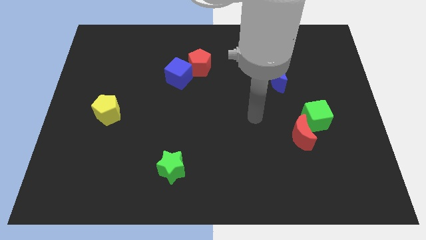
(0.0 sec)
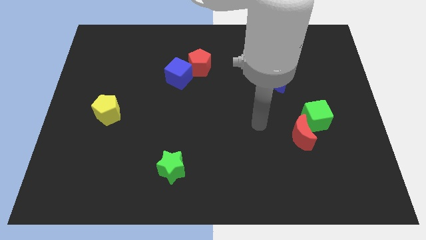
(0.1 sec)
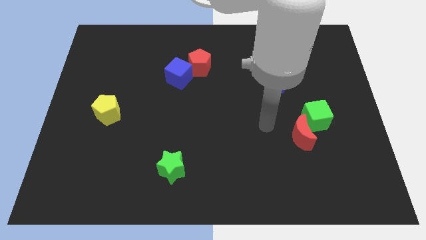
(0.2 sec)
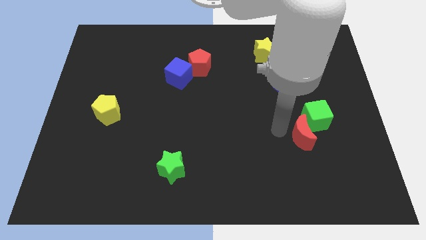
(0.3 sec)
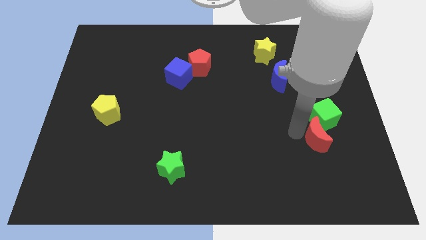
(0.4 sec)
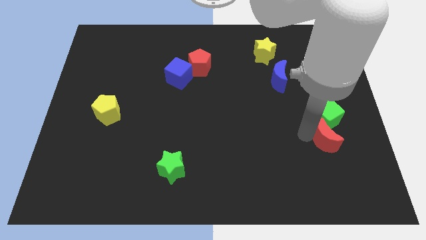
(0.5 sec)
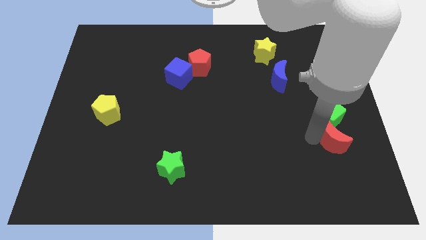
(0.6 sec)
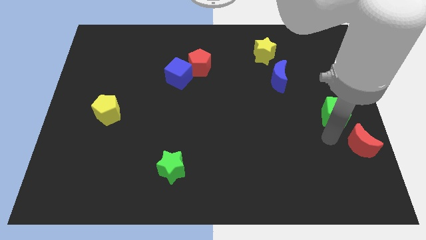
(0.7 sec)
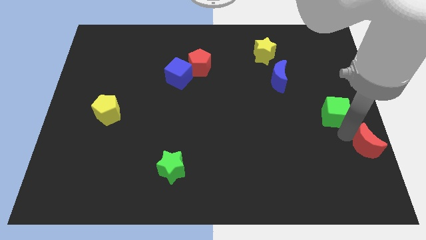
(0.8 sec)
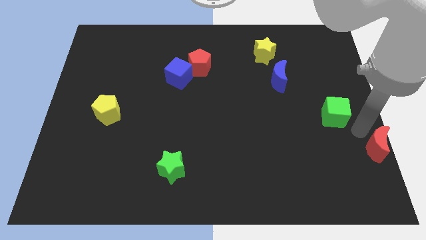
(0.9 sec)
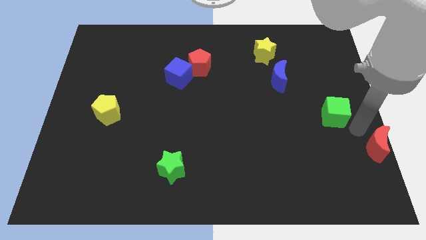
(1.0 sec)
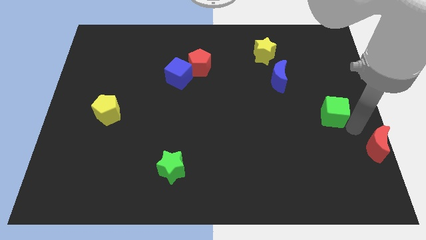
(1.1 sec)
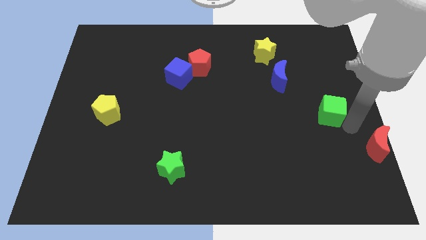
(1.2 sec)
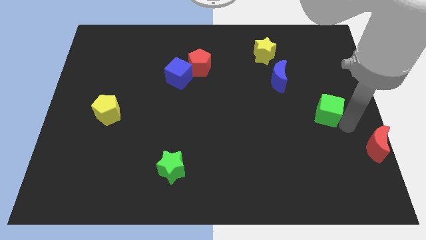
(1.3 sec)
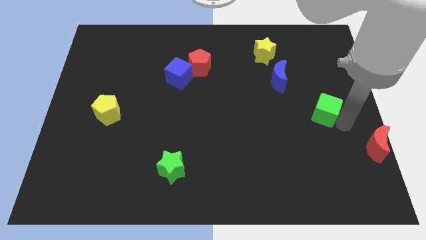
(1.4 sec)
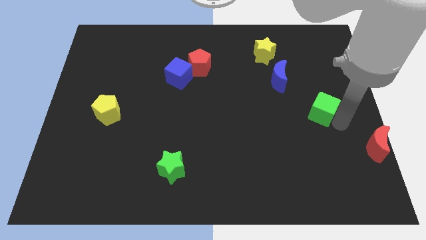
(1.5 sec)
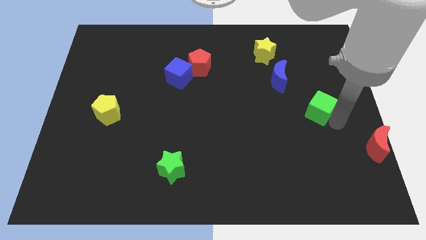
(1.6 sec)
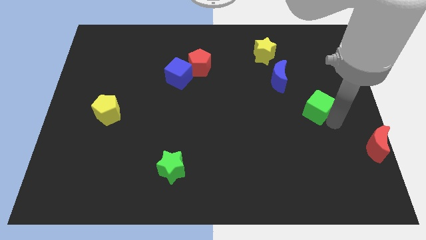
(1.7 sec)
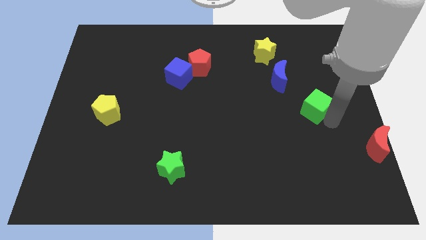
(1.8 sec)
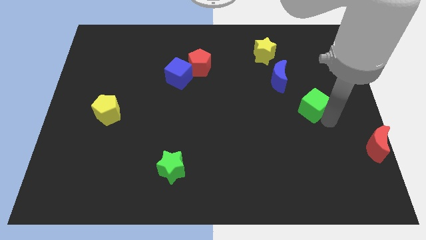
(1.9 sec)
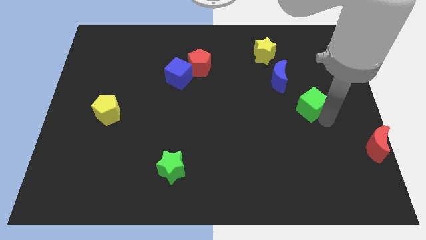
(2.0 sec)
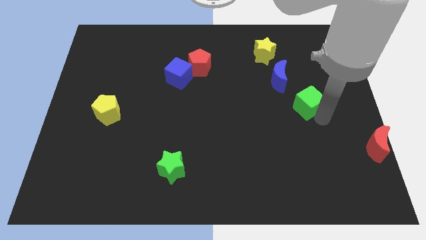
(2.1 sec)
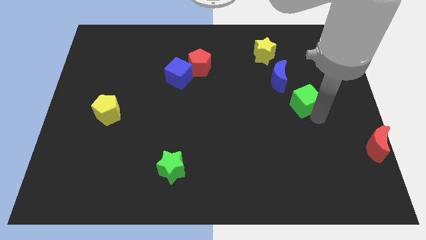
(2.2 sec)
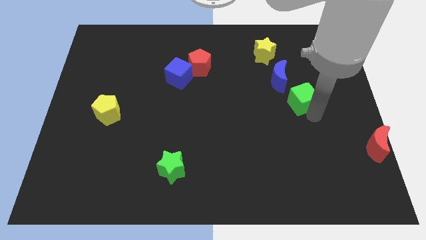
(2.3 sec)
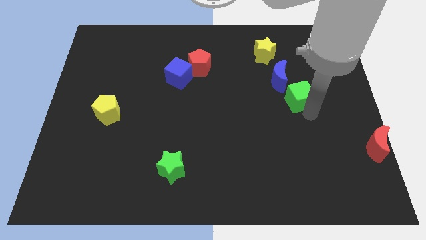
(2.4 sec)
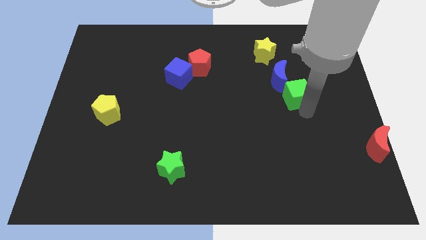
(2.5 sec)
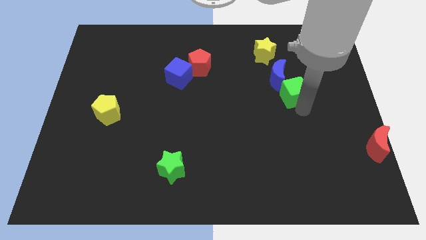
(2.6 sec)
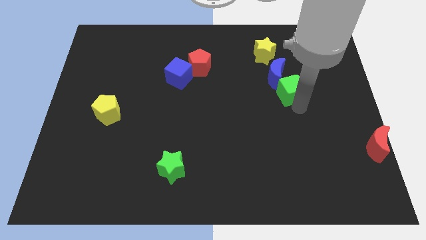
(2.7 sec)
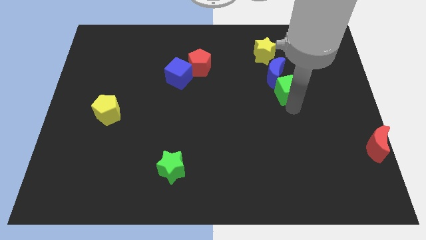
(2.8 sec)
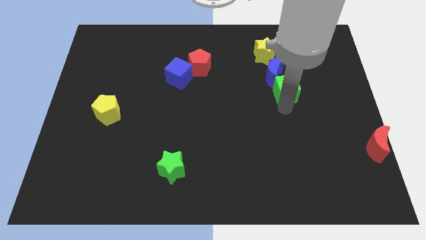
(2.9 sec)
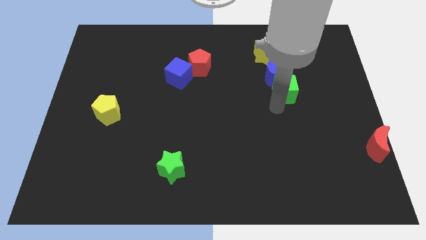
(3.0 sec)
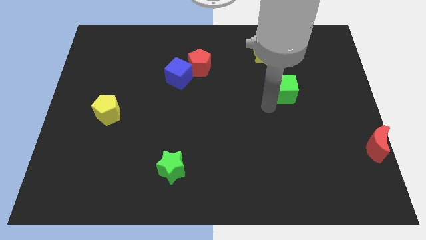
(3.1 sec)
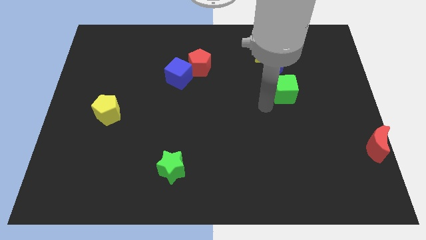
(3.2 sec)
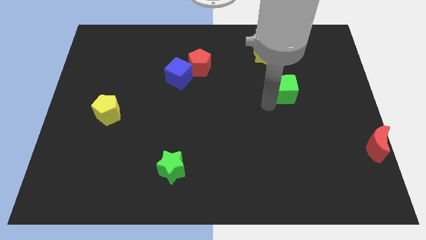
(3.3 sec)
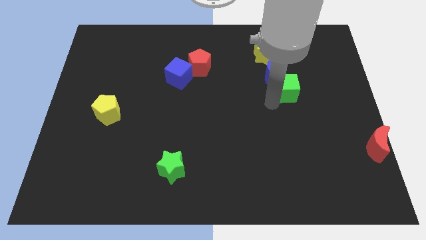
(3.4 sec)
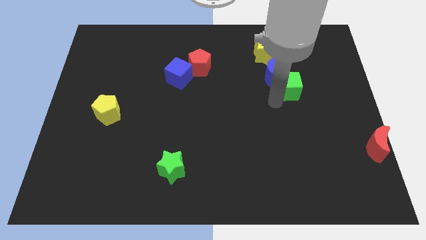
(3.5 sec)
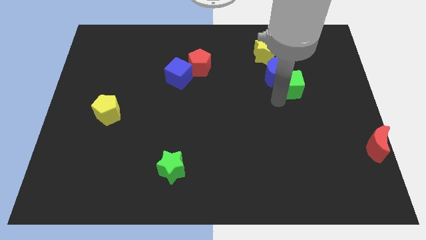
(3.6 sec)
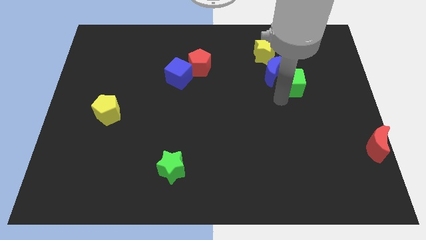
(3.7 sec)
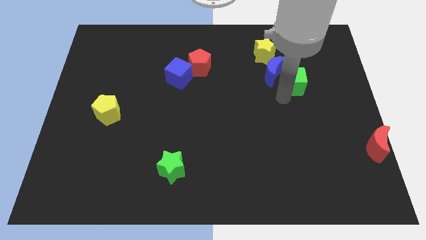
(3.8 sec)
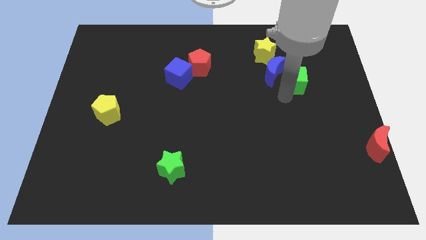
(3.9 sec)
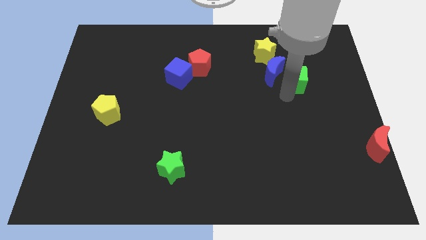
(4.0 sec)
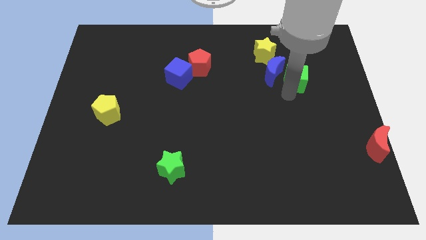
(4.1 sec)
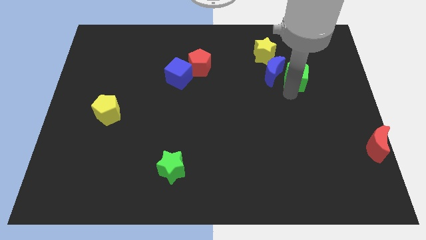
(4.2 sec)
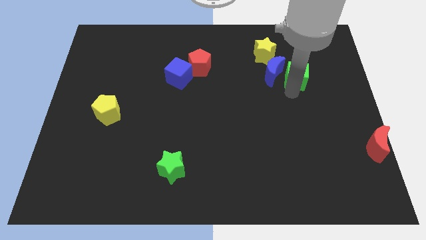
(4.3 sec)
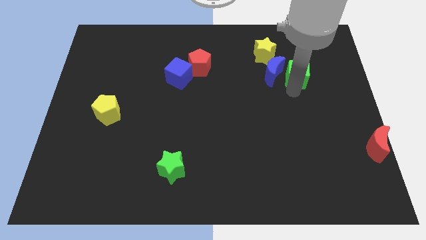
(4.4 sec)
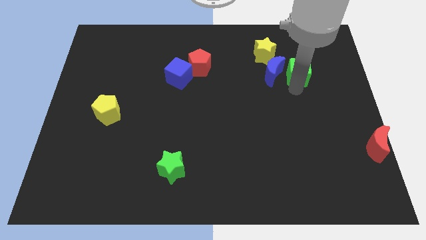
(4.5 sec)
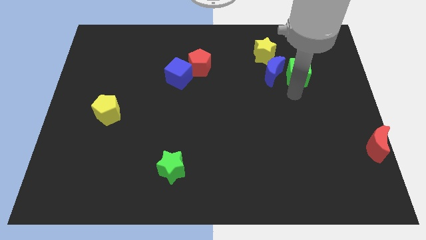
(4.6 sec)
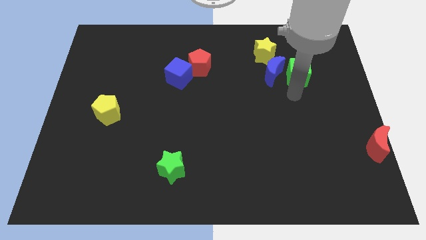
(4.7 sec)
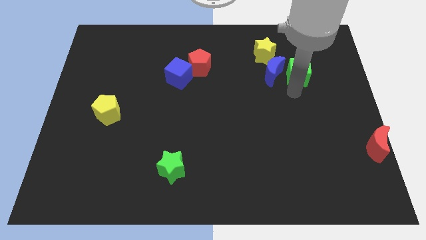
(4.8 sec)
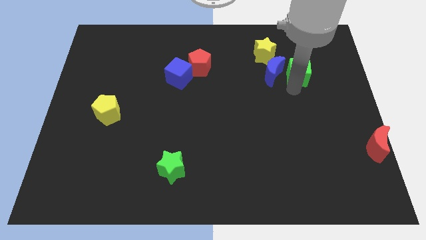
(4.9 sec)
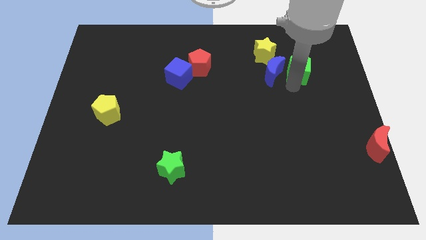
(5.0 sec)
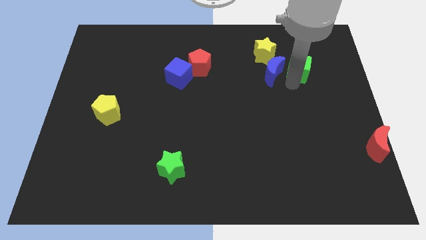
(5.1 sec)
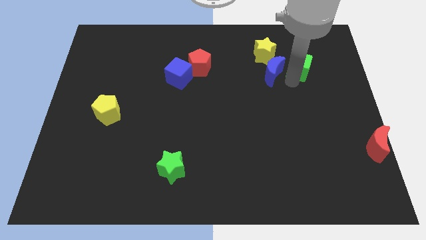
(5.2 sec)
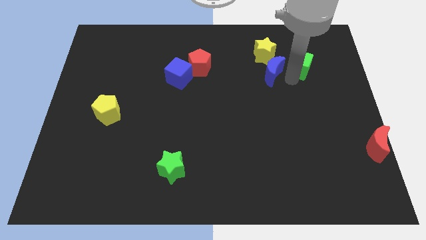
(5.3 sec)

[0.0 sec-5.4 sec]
move the green cube to the right of the yellow star

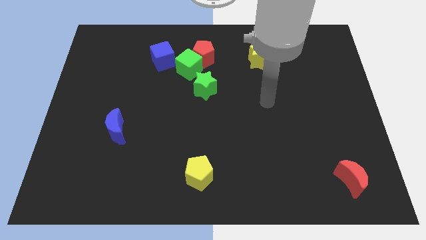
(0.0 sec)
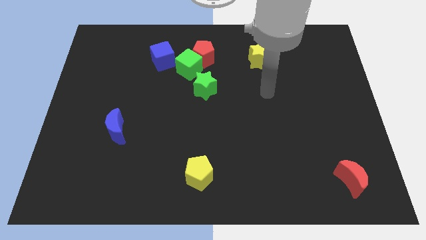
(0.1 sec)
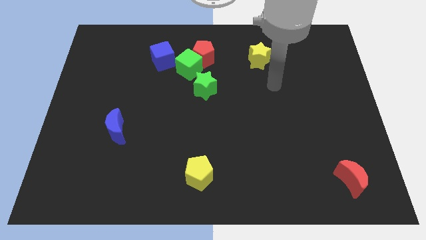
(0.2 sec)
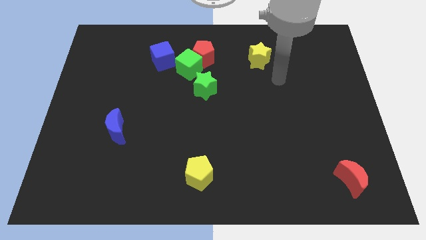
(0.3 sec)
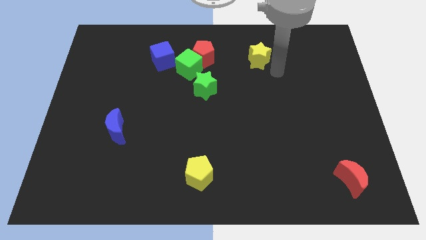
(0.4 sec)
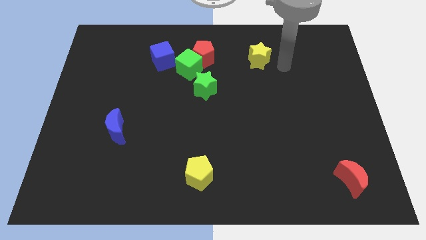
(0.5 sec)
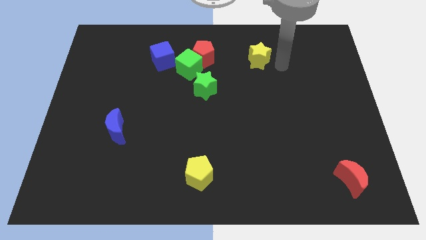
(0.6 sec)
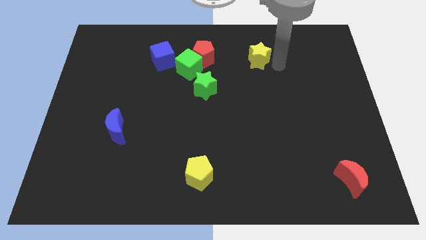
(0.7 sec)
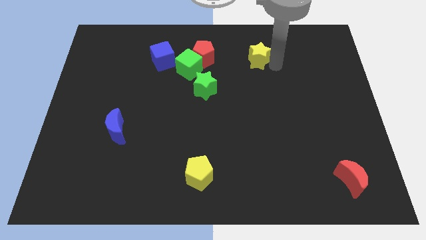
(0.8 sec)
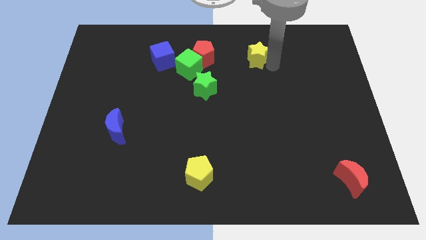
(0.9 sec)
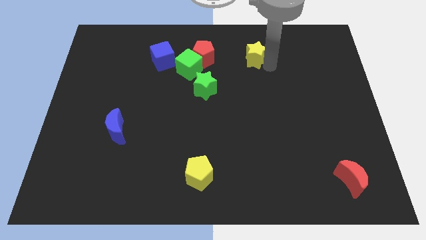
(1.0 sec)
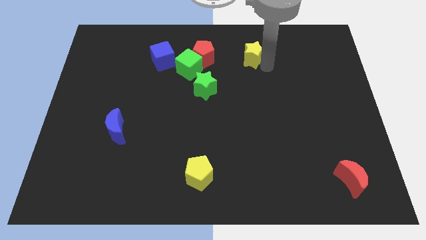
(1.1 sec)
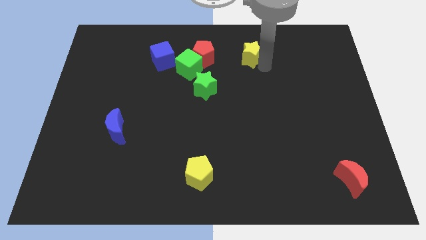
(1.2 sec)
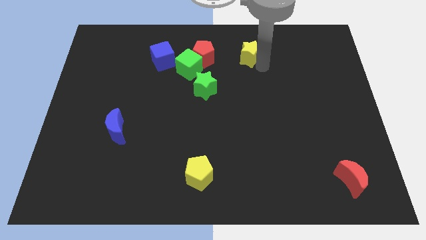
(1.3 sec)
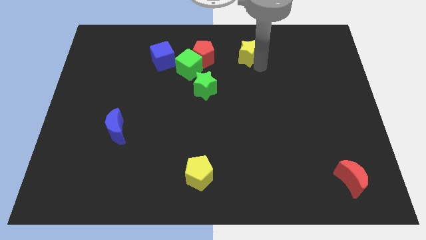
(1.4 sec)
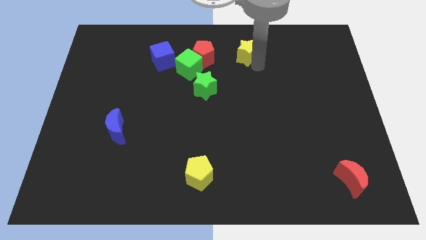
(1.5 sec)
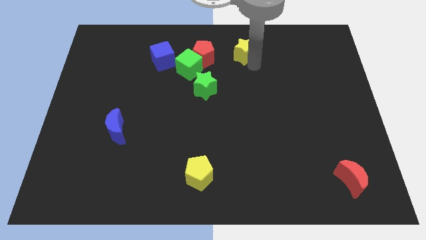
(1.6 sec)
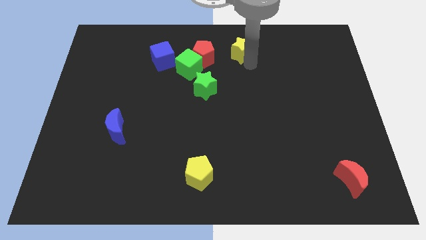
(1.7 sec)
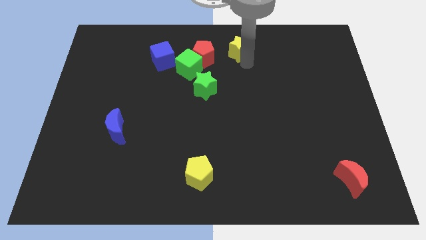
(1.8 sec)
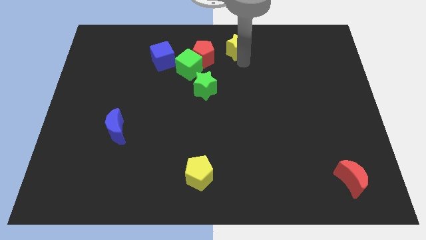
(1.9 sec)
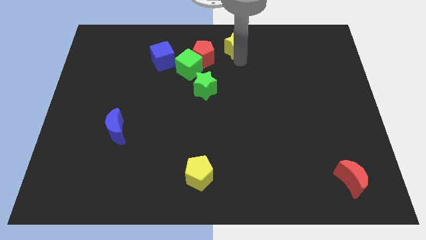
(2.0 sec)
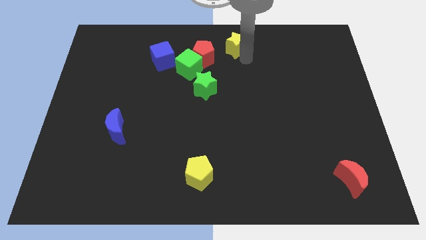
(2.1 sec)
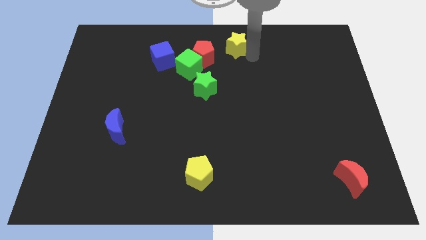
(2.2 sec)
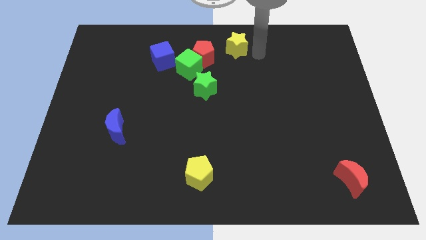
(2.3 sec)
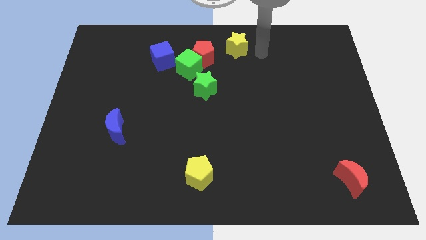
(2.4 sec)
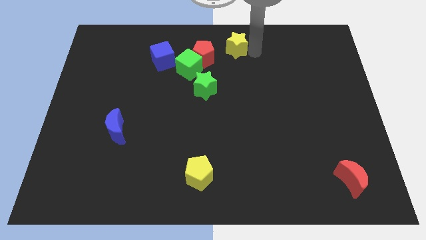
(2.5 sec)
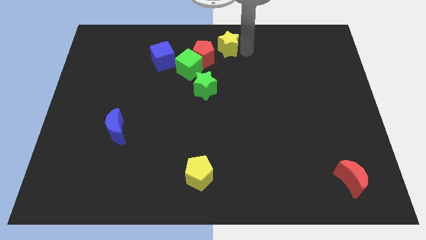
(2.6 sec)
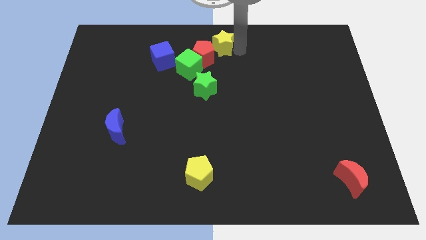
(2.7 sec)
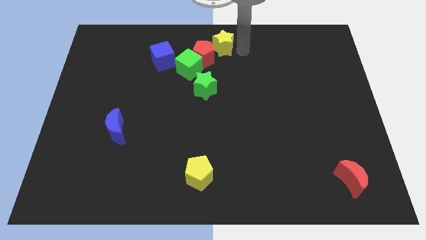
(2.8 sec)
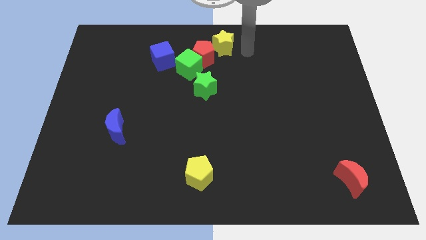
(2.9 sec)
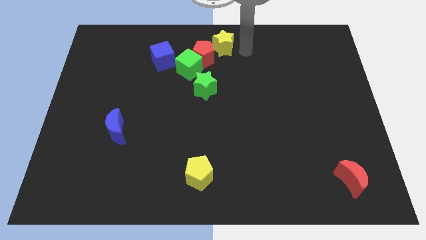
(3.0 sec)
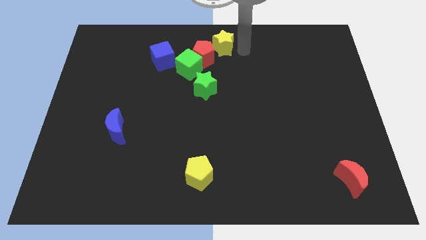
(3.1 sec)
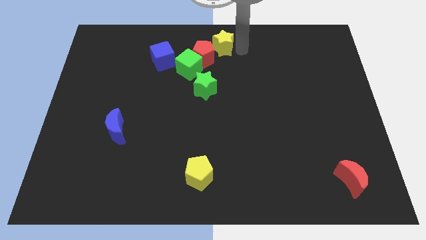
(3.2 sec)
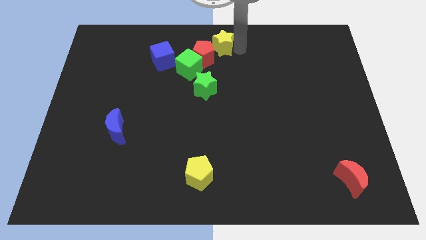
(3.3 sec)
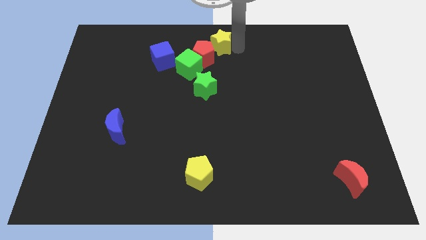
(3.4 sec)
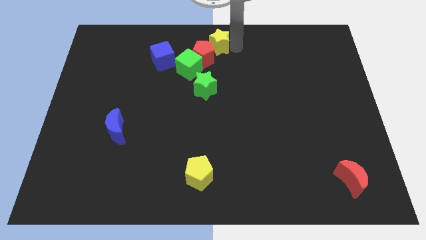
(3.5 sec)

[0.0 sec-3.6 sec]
push the yellow star to the top side of the green star
